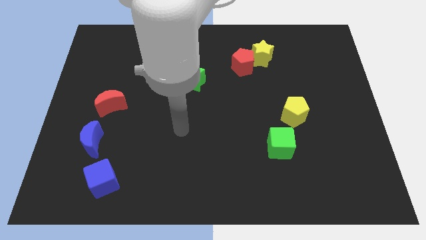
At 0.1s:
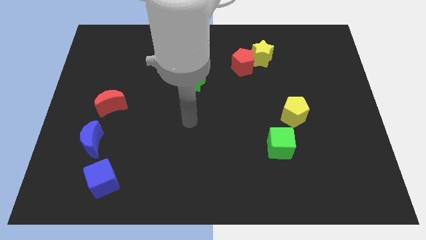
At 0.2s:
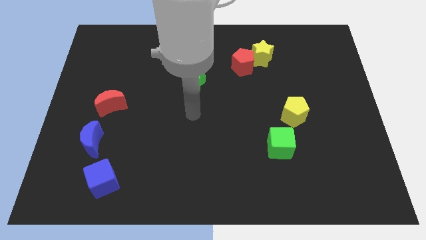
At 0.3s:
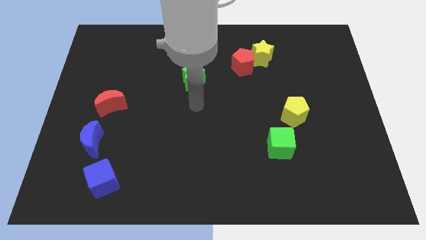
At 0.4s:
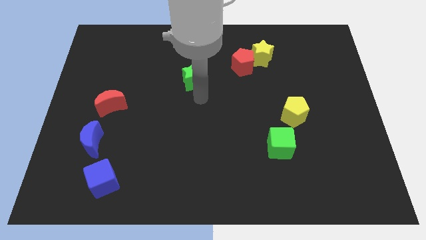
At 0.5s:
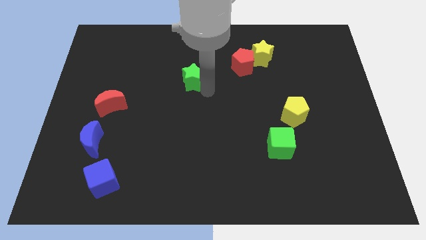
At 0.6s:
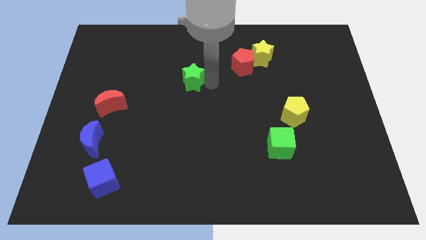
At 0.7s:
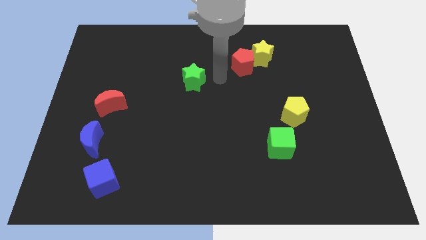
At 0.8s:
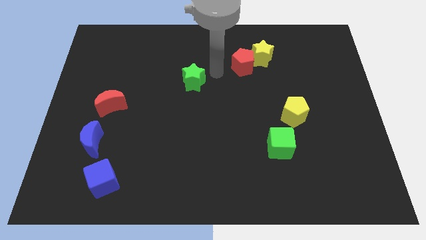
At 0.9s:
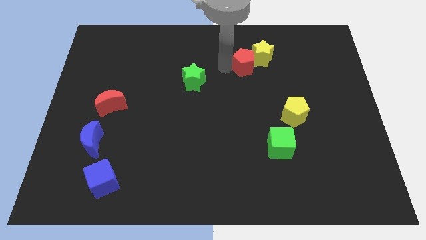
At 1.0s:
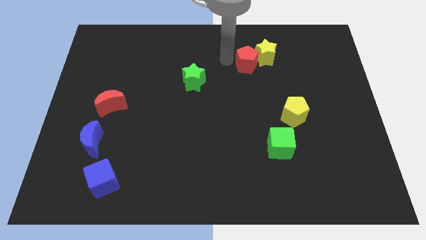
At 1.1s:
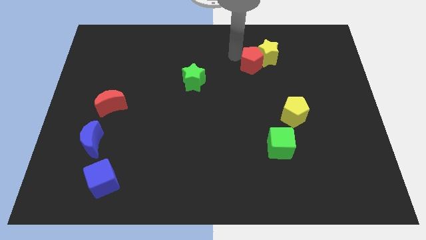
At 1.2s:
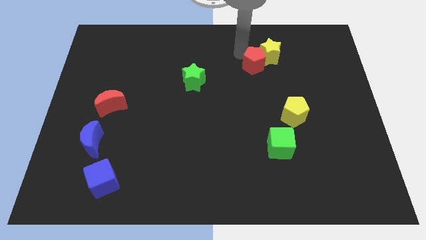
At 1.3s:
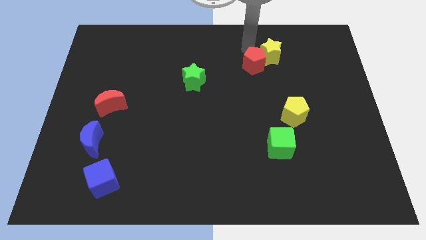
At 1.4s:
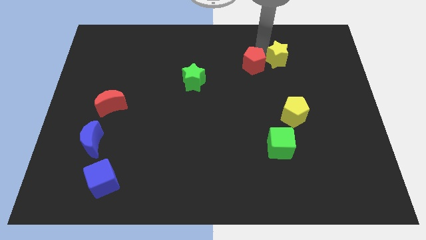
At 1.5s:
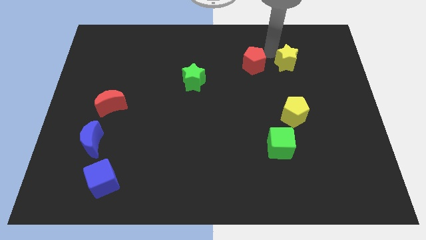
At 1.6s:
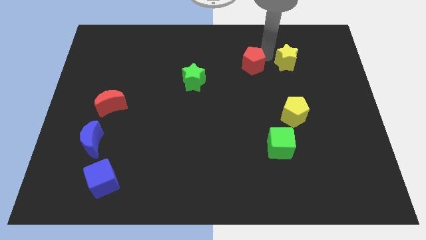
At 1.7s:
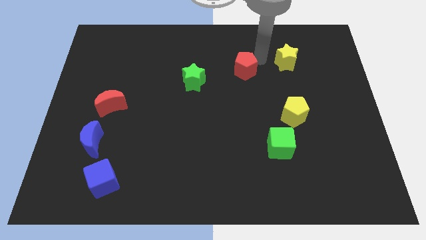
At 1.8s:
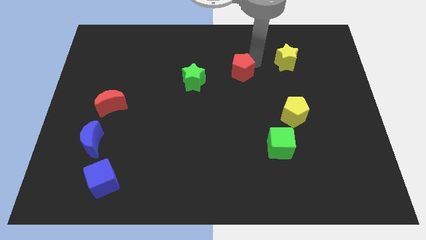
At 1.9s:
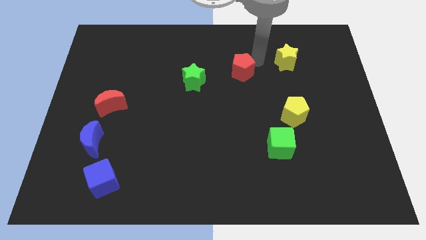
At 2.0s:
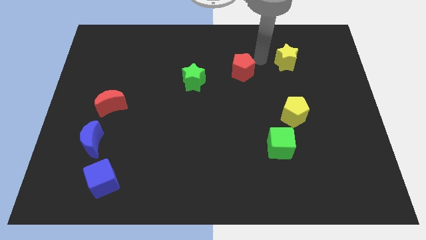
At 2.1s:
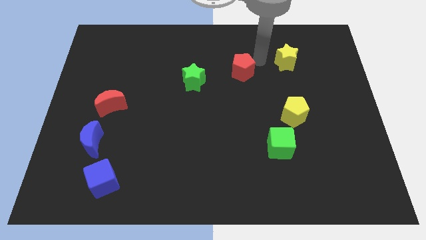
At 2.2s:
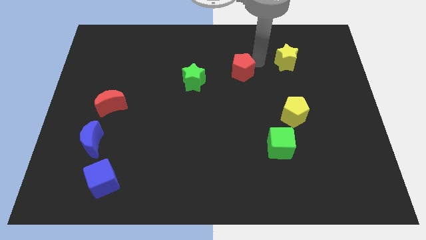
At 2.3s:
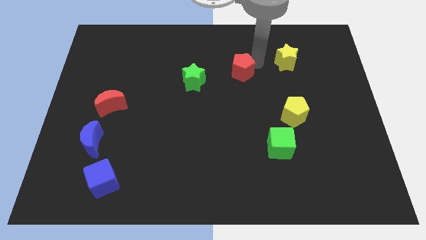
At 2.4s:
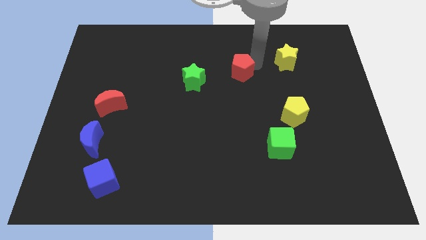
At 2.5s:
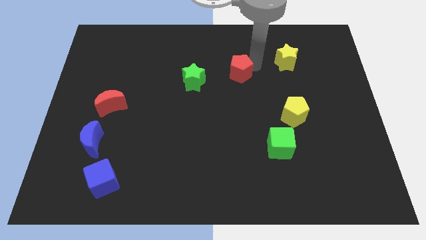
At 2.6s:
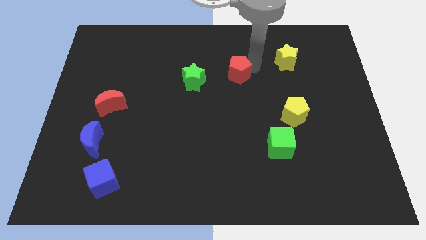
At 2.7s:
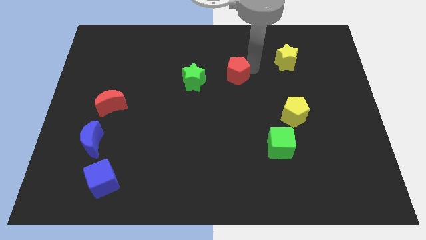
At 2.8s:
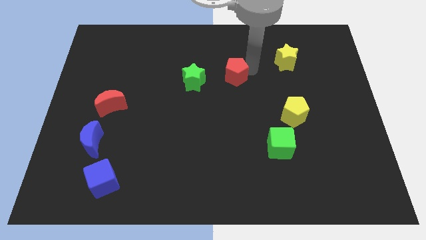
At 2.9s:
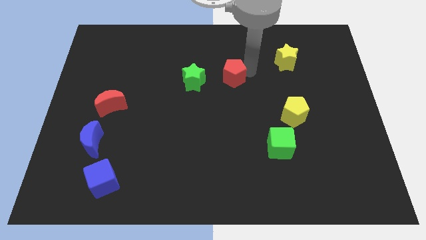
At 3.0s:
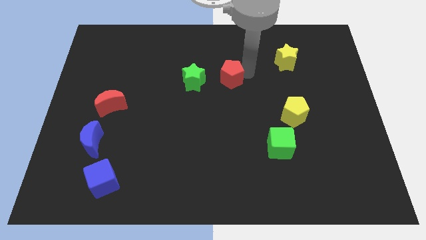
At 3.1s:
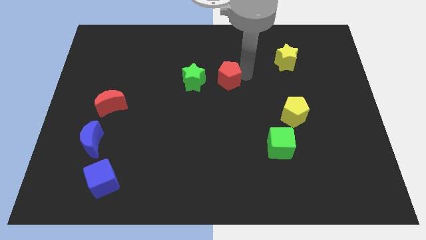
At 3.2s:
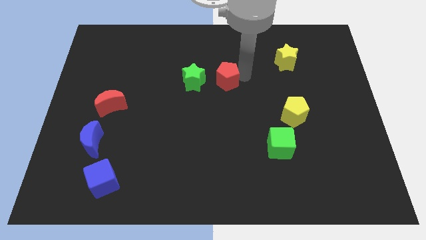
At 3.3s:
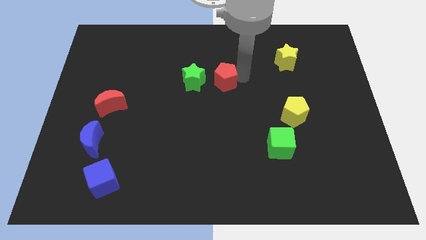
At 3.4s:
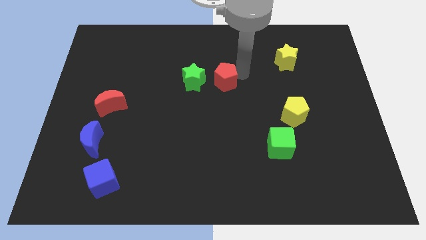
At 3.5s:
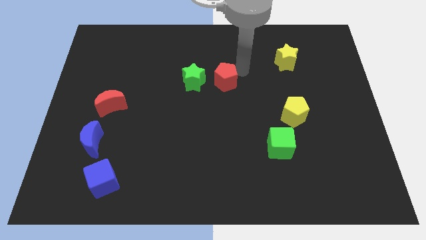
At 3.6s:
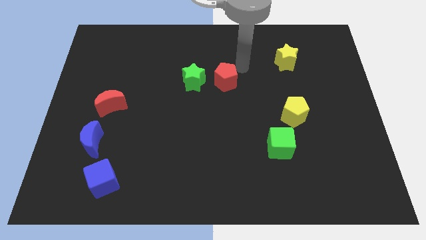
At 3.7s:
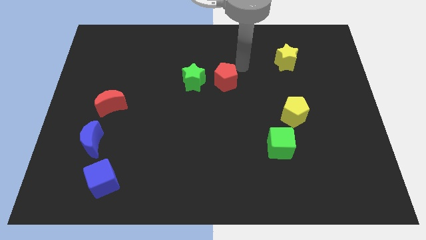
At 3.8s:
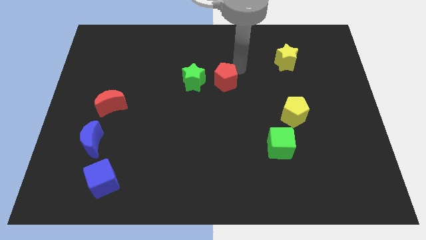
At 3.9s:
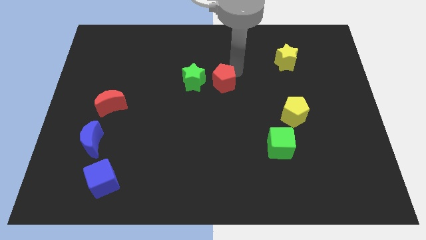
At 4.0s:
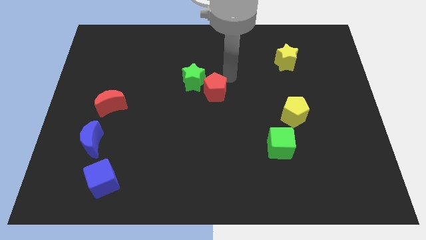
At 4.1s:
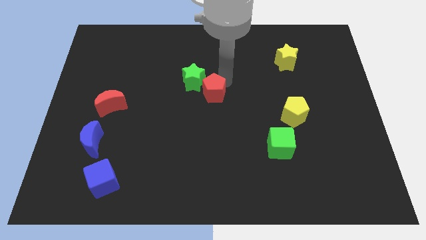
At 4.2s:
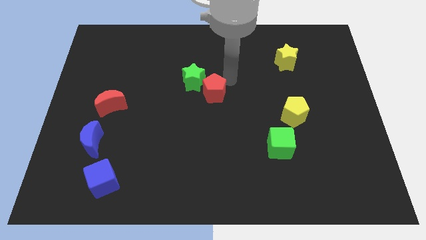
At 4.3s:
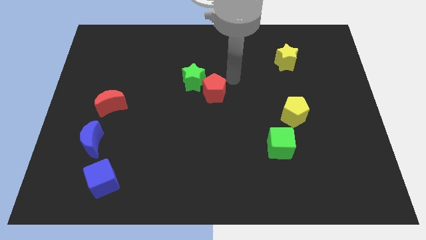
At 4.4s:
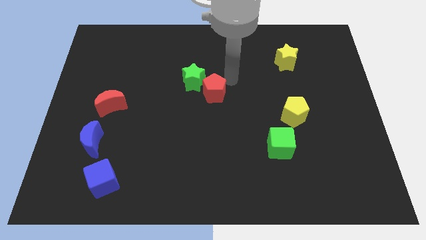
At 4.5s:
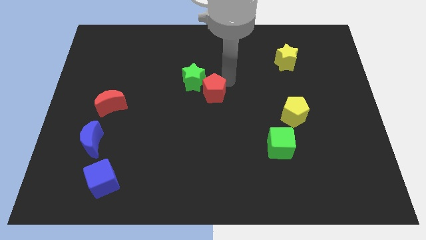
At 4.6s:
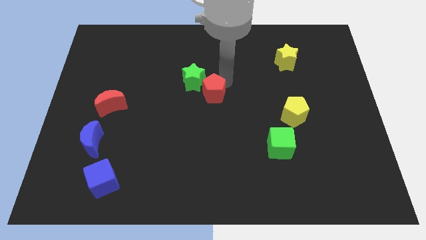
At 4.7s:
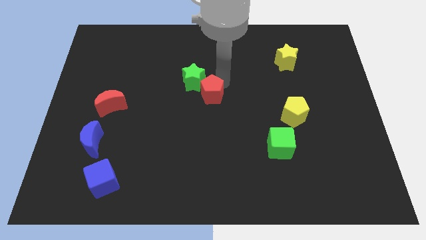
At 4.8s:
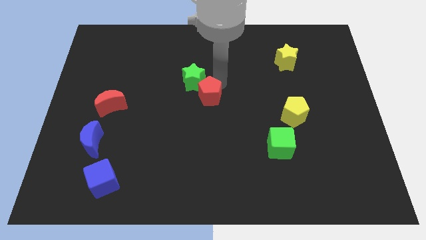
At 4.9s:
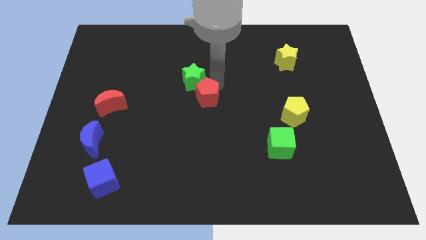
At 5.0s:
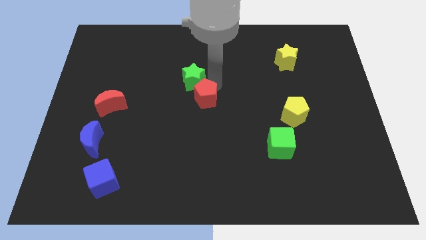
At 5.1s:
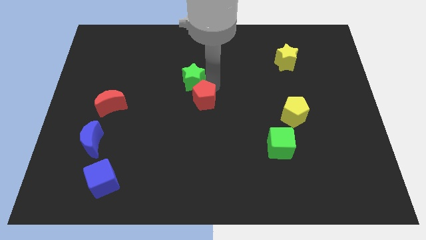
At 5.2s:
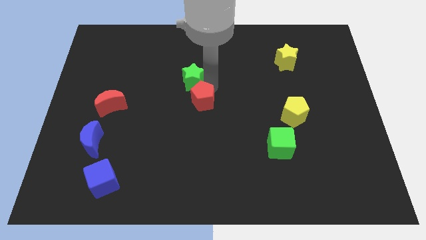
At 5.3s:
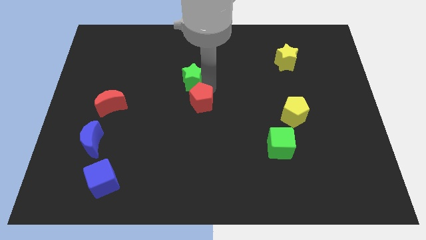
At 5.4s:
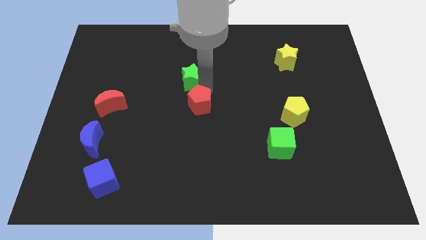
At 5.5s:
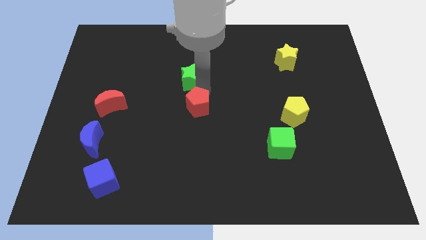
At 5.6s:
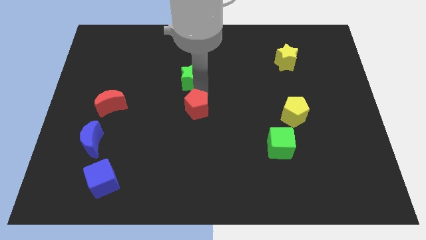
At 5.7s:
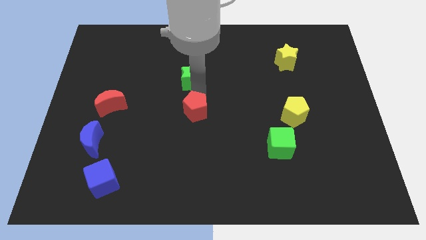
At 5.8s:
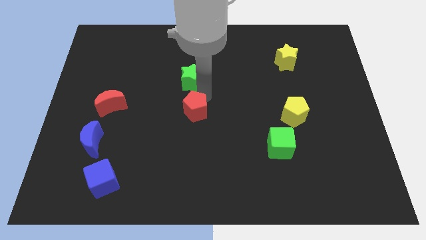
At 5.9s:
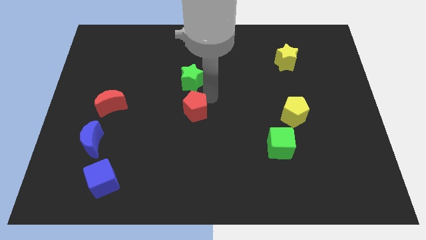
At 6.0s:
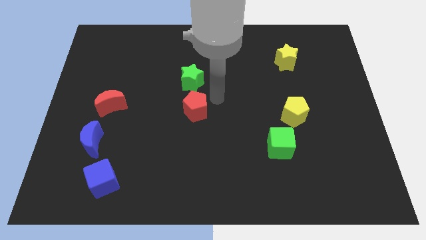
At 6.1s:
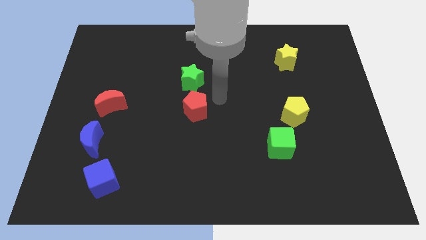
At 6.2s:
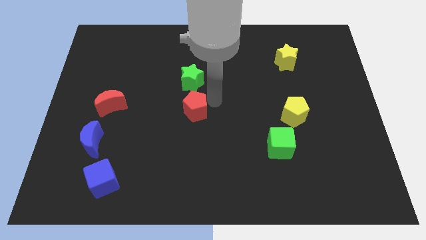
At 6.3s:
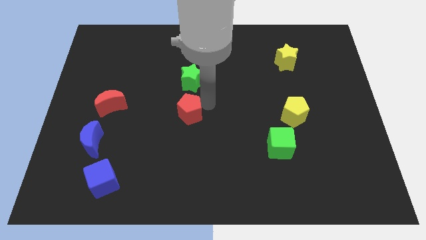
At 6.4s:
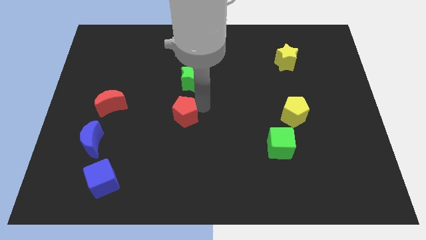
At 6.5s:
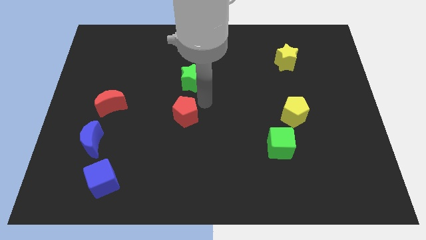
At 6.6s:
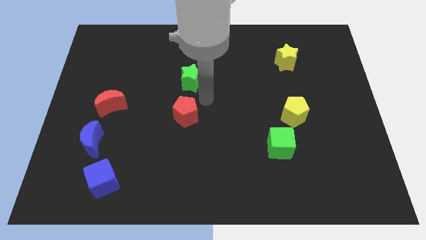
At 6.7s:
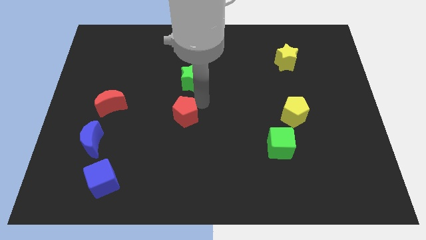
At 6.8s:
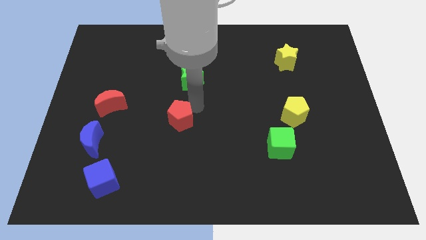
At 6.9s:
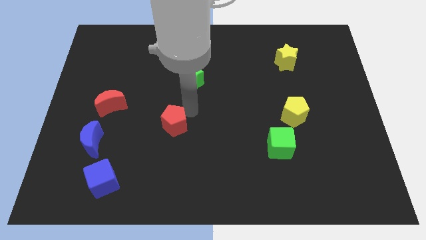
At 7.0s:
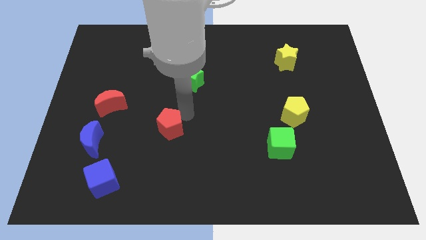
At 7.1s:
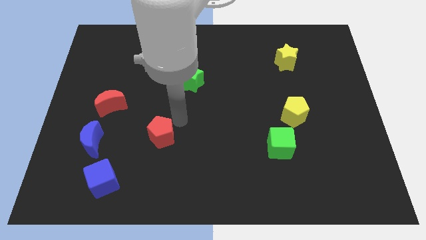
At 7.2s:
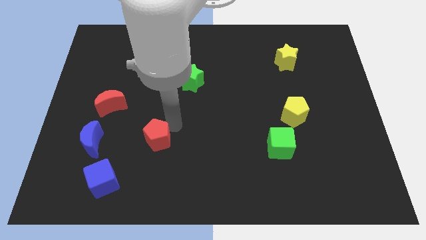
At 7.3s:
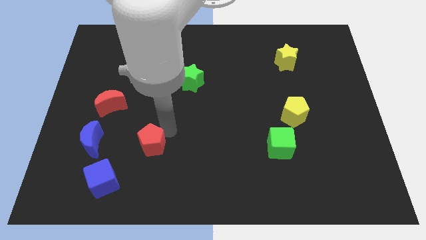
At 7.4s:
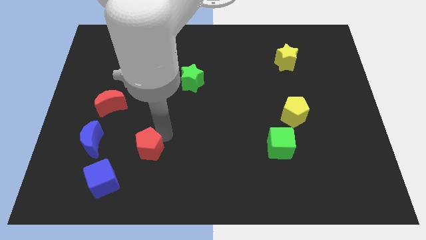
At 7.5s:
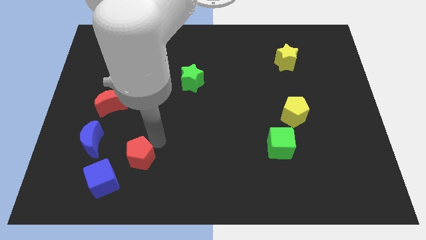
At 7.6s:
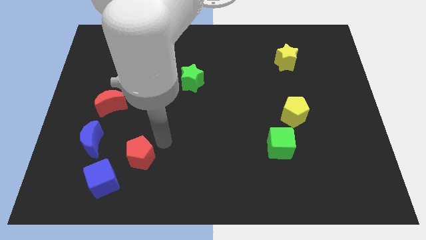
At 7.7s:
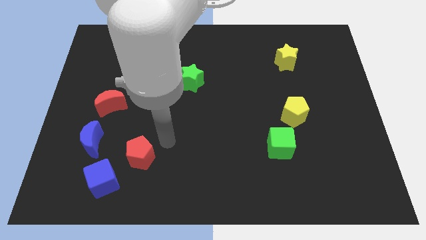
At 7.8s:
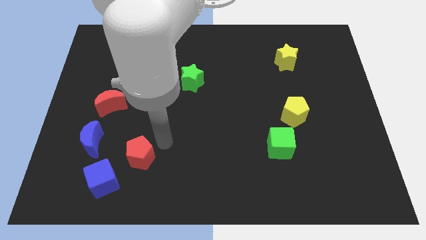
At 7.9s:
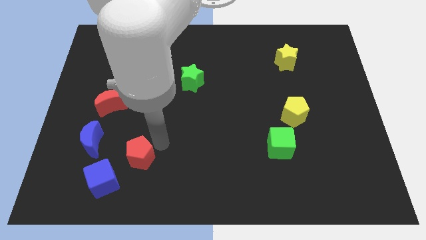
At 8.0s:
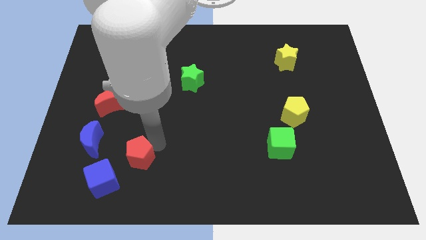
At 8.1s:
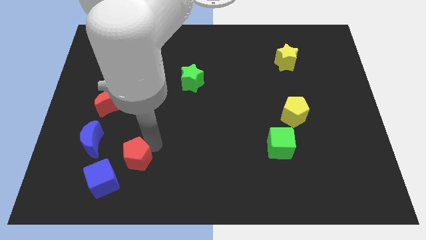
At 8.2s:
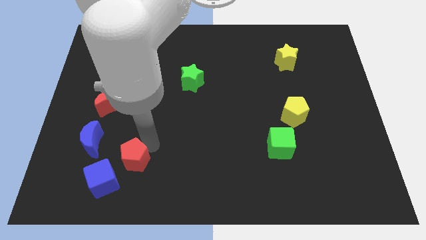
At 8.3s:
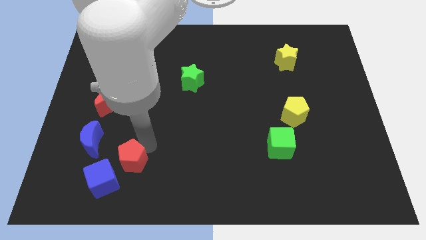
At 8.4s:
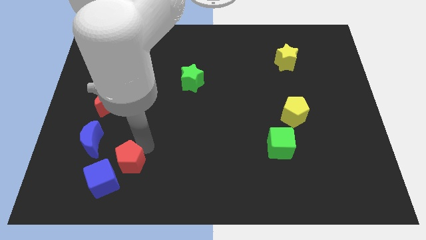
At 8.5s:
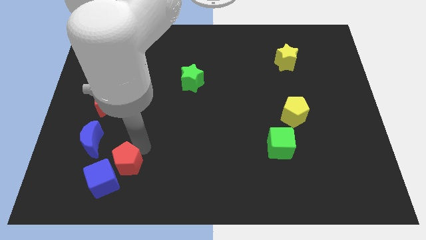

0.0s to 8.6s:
move the red pentagon towards the blue cube

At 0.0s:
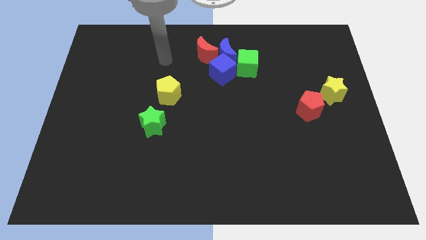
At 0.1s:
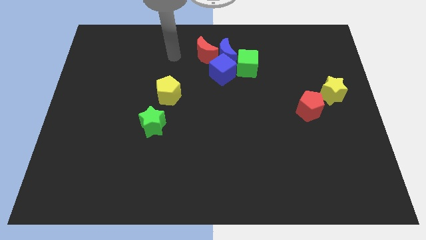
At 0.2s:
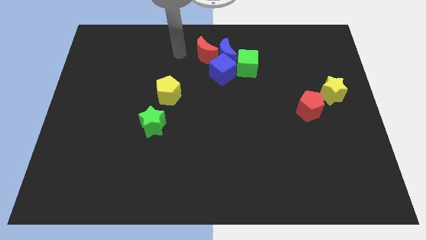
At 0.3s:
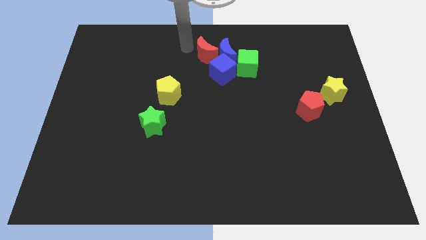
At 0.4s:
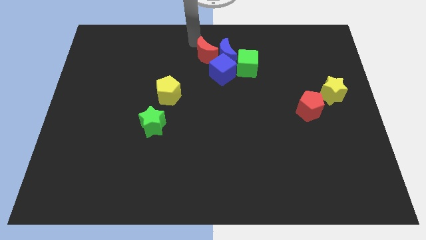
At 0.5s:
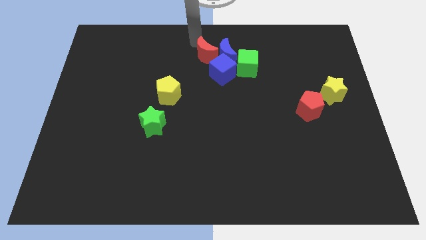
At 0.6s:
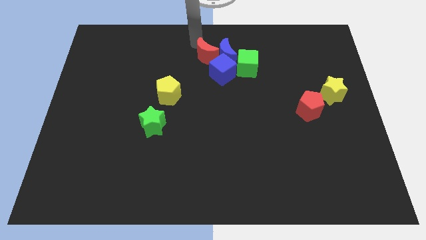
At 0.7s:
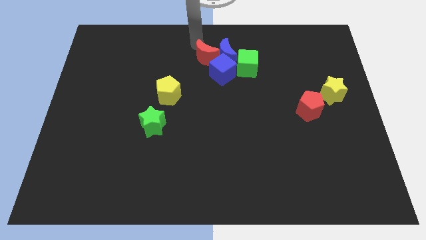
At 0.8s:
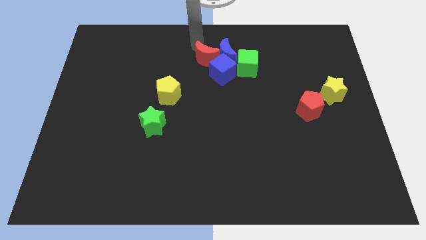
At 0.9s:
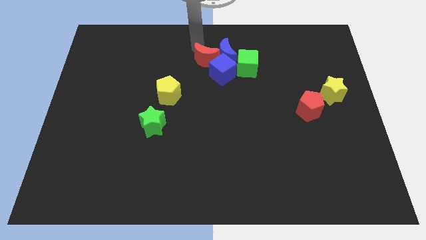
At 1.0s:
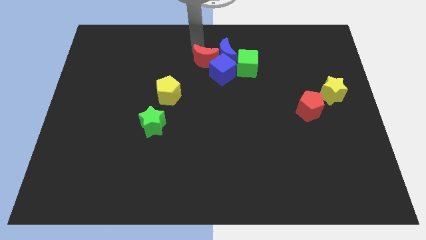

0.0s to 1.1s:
slide the red moon towards the blue cube
